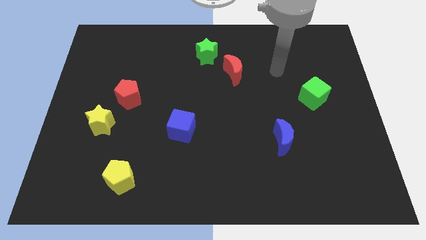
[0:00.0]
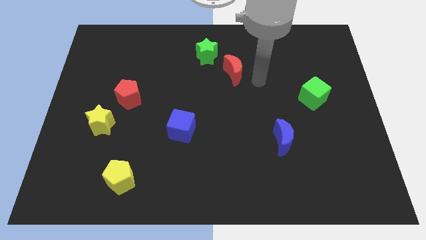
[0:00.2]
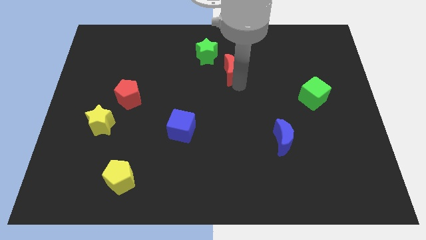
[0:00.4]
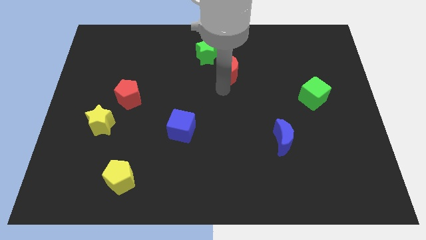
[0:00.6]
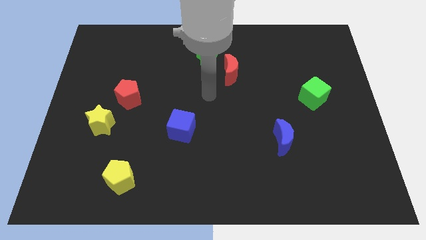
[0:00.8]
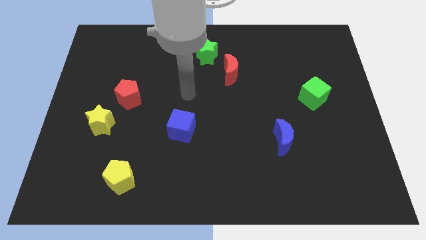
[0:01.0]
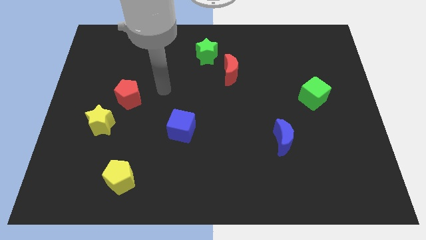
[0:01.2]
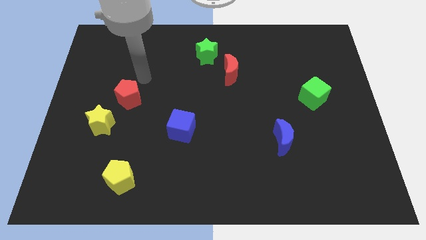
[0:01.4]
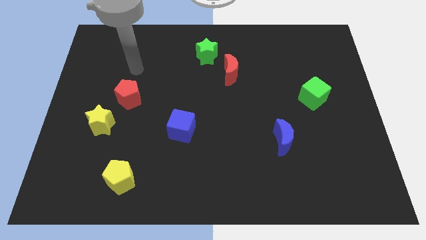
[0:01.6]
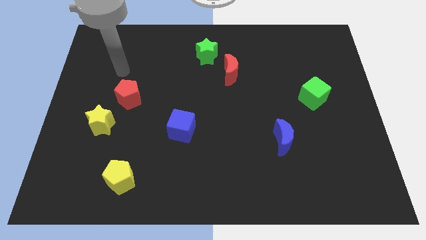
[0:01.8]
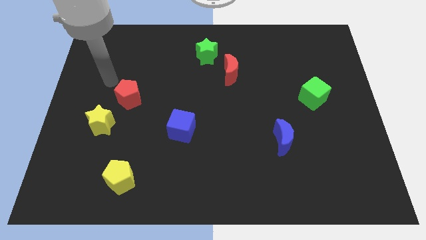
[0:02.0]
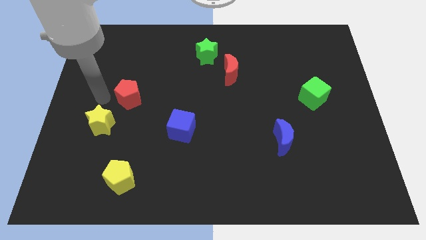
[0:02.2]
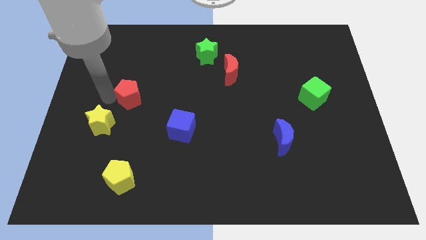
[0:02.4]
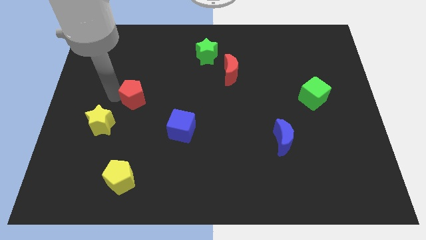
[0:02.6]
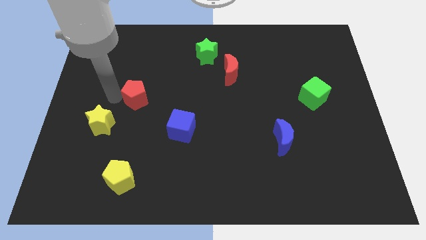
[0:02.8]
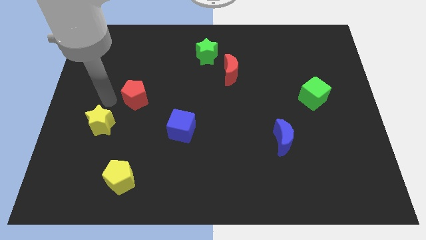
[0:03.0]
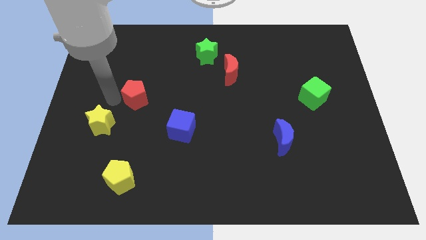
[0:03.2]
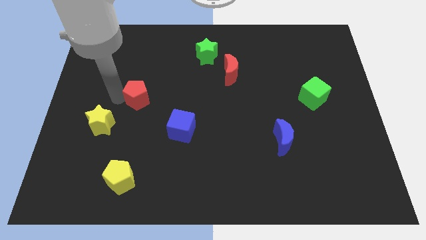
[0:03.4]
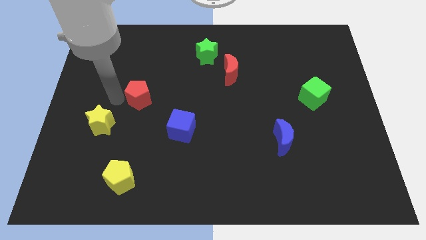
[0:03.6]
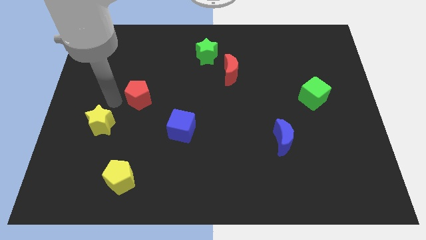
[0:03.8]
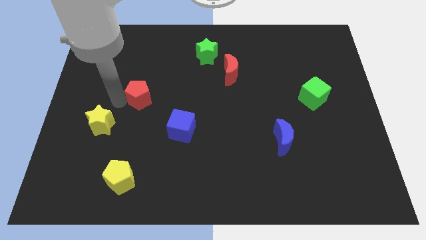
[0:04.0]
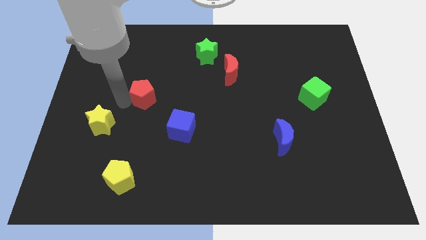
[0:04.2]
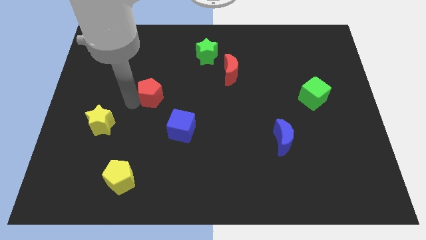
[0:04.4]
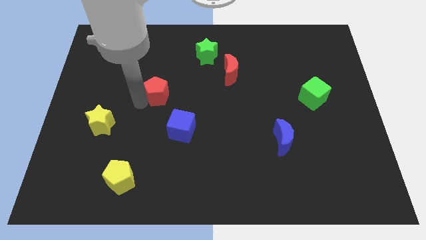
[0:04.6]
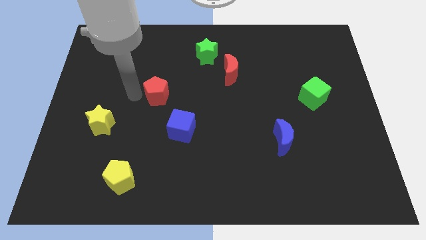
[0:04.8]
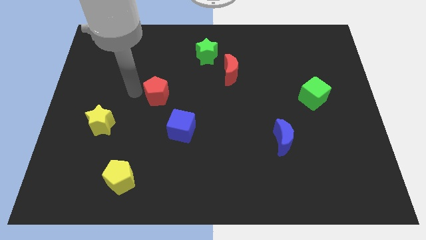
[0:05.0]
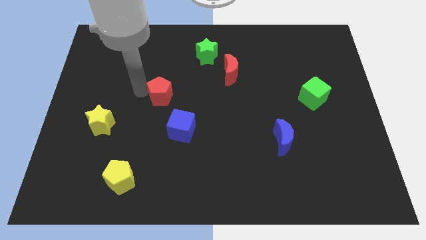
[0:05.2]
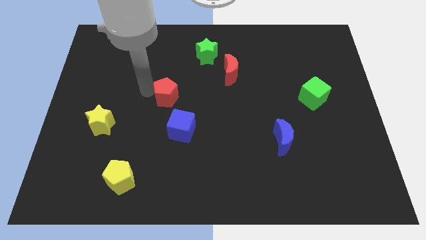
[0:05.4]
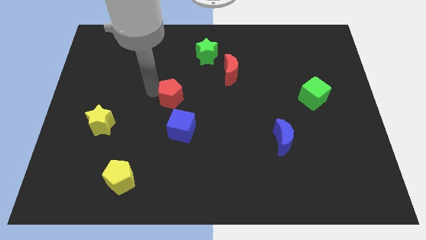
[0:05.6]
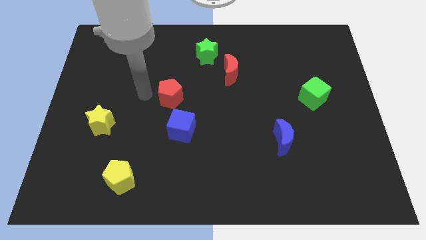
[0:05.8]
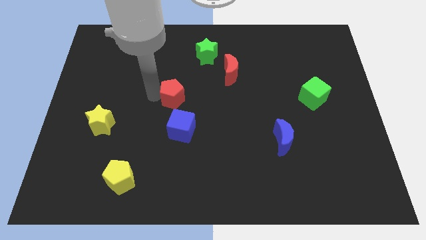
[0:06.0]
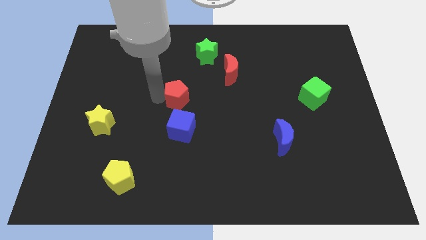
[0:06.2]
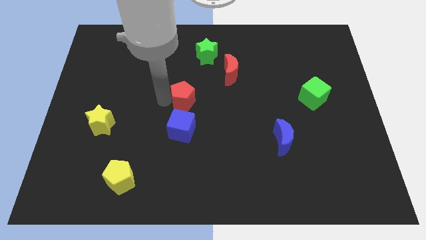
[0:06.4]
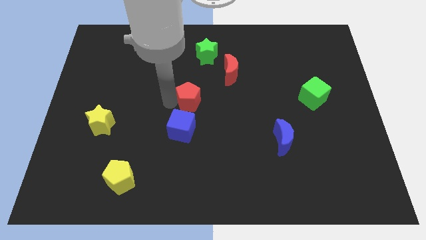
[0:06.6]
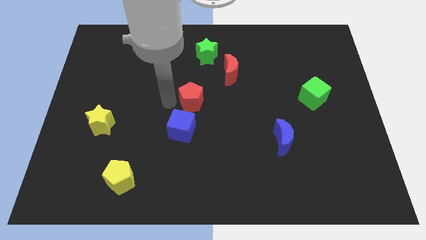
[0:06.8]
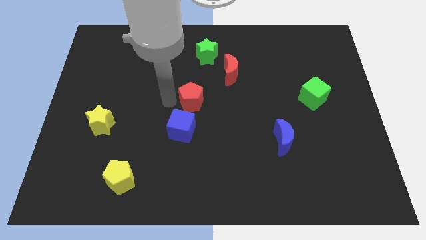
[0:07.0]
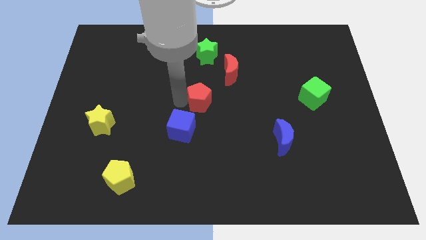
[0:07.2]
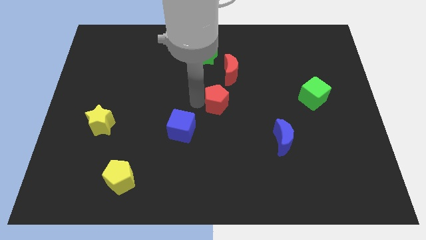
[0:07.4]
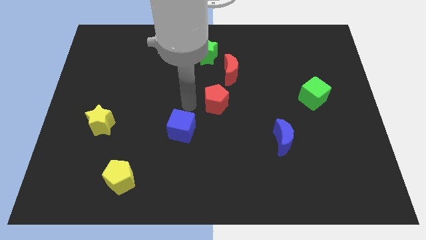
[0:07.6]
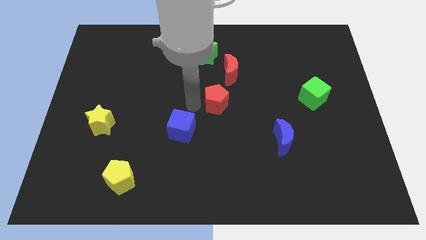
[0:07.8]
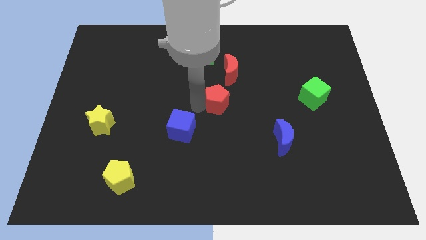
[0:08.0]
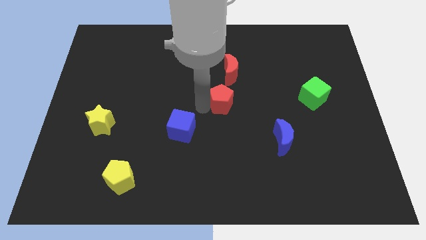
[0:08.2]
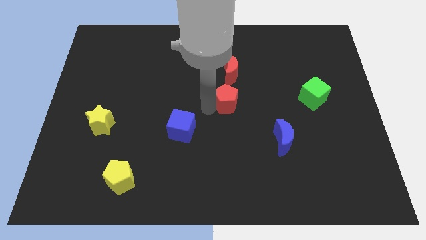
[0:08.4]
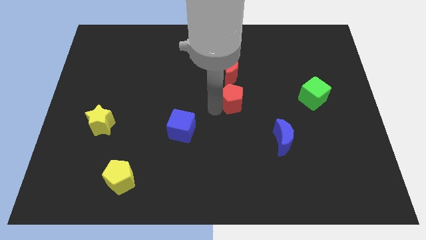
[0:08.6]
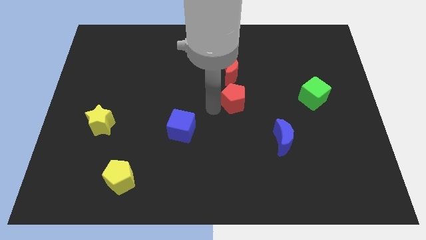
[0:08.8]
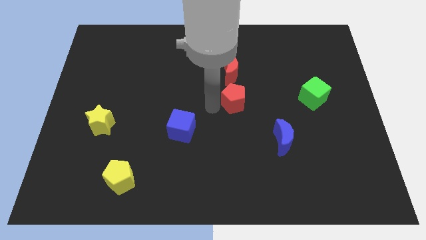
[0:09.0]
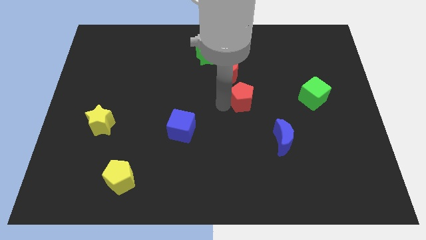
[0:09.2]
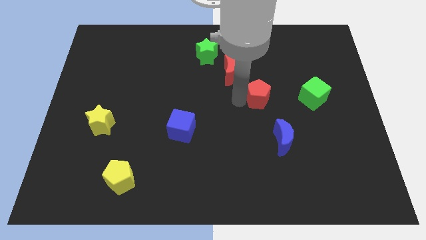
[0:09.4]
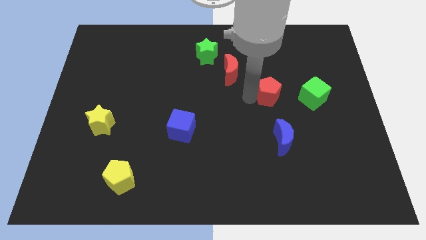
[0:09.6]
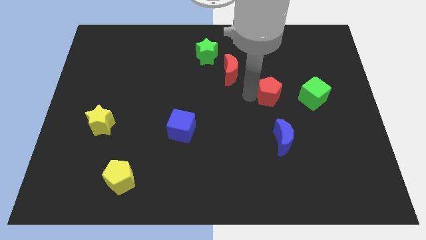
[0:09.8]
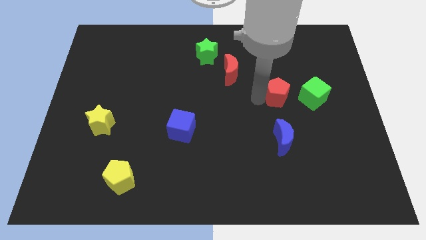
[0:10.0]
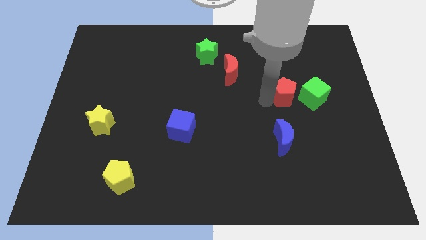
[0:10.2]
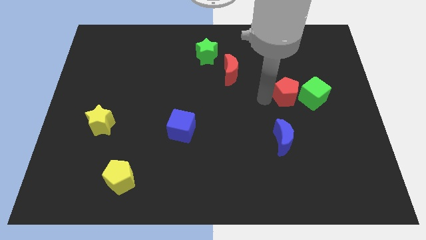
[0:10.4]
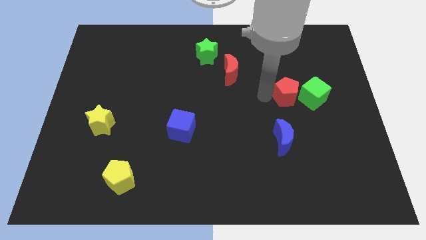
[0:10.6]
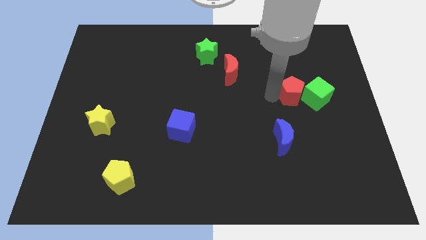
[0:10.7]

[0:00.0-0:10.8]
put the red pentagon to the green cube
